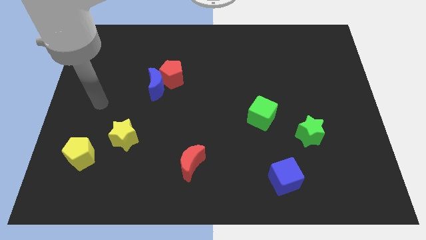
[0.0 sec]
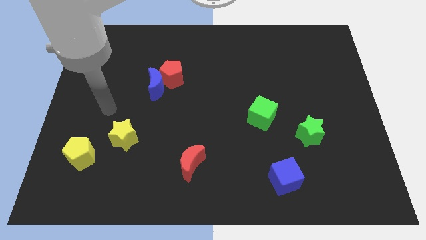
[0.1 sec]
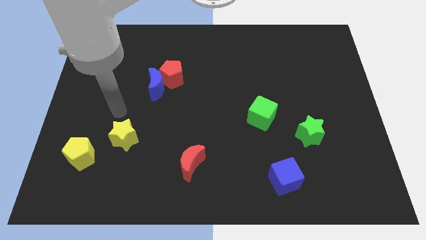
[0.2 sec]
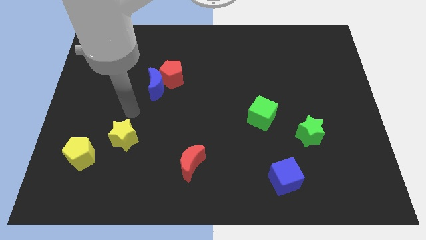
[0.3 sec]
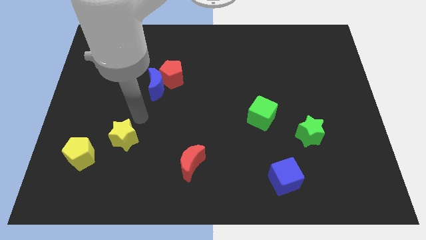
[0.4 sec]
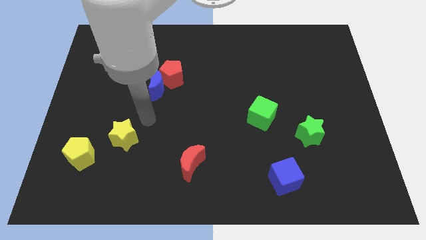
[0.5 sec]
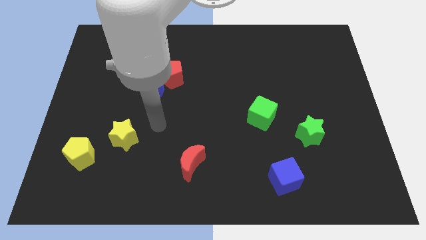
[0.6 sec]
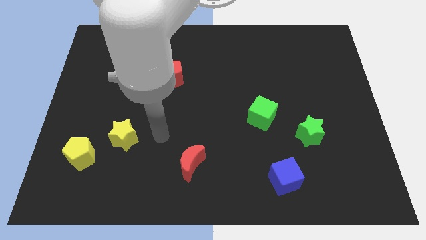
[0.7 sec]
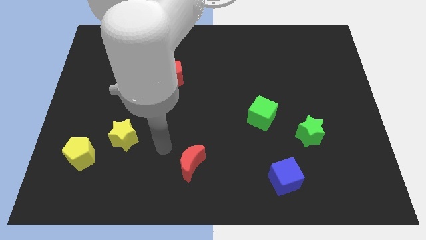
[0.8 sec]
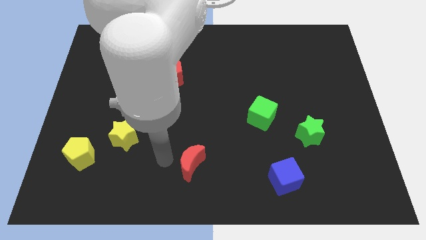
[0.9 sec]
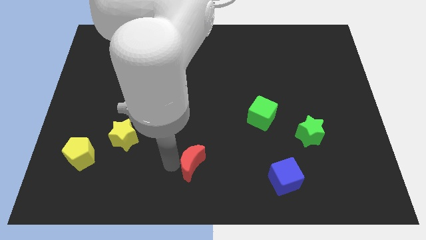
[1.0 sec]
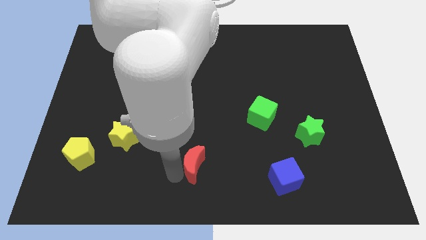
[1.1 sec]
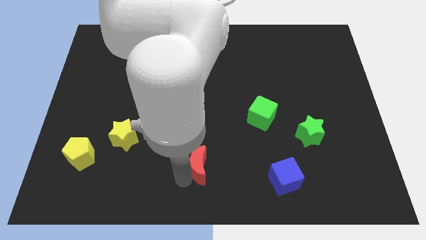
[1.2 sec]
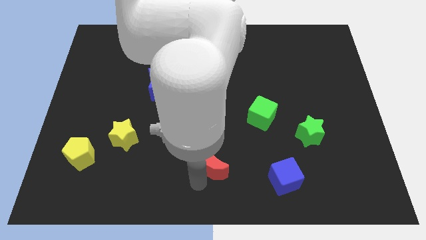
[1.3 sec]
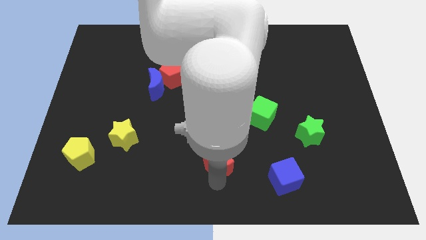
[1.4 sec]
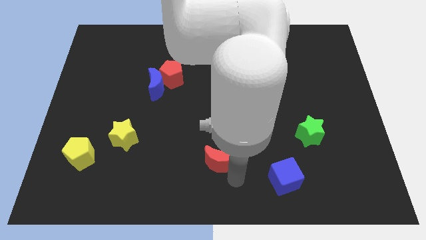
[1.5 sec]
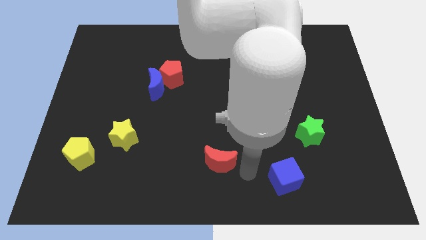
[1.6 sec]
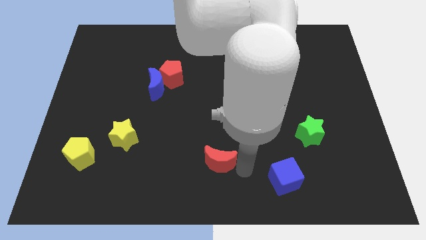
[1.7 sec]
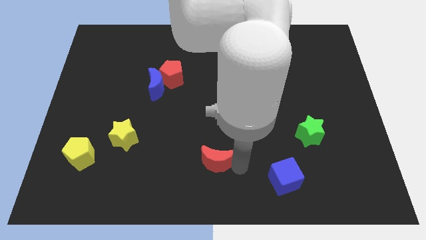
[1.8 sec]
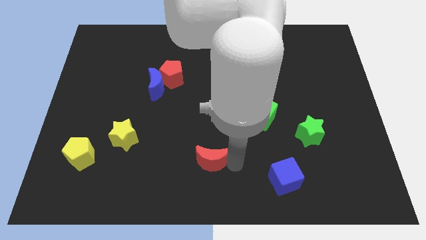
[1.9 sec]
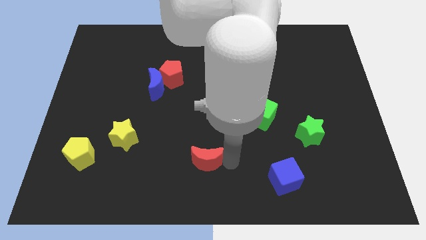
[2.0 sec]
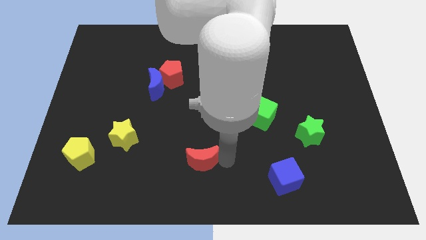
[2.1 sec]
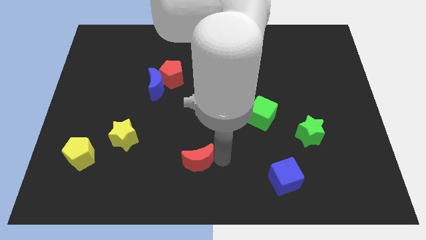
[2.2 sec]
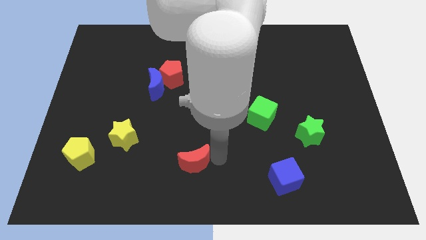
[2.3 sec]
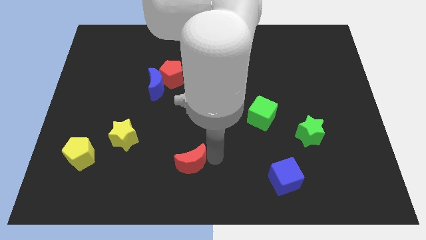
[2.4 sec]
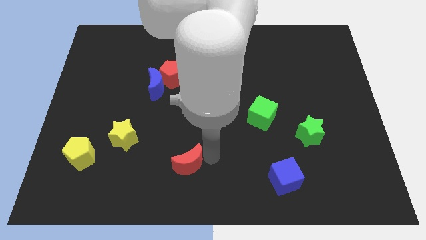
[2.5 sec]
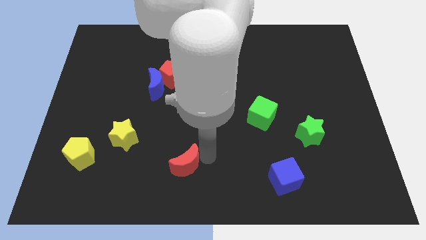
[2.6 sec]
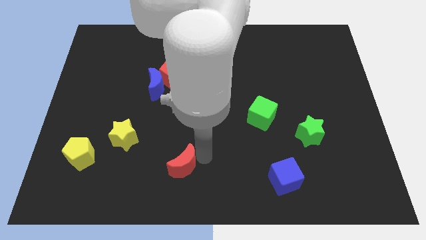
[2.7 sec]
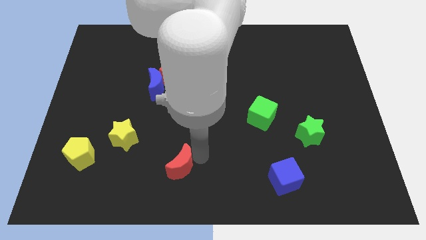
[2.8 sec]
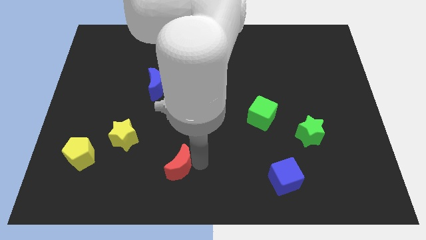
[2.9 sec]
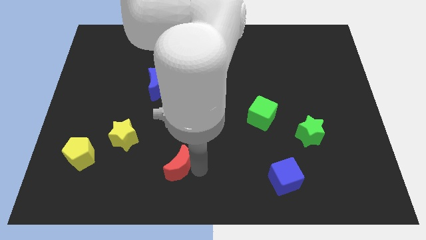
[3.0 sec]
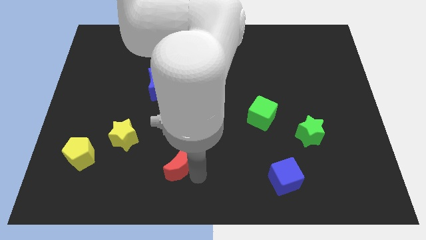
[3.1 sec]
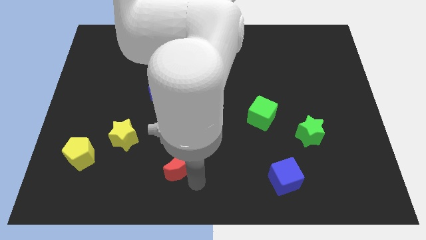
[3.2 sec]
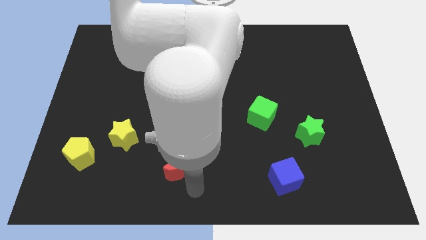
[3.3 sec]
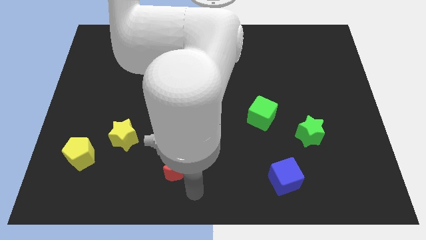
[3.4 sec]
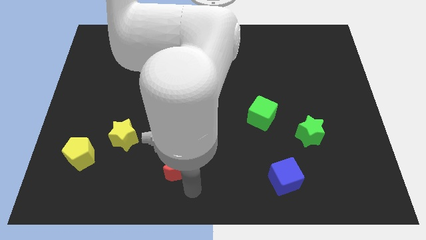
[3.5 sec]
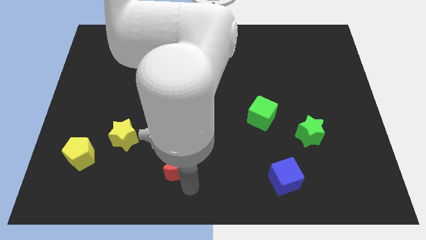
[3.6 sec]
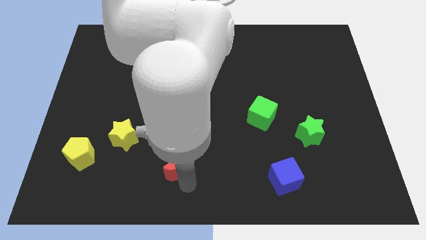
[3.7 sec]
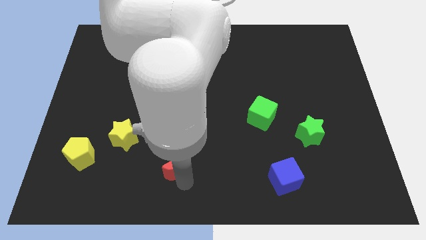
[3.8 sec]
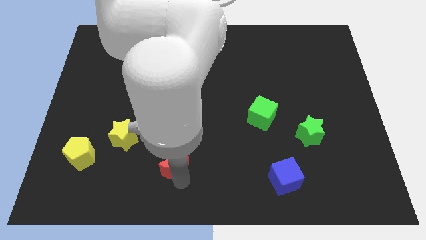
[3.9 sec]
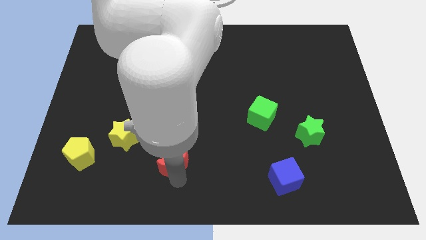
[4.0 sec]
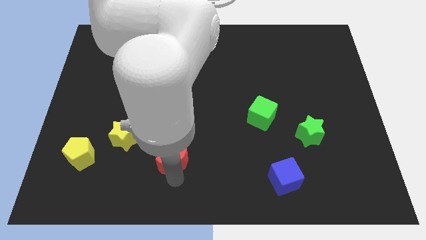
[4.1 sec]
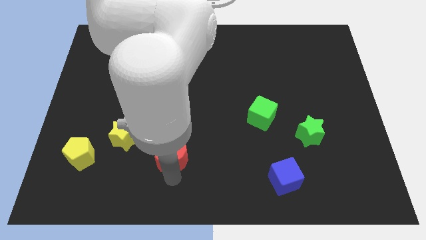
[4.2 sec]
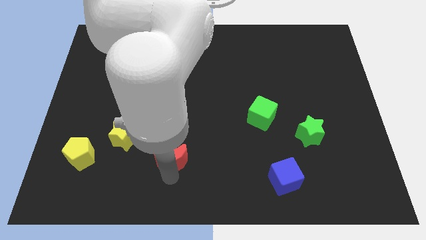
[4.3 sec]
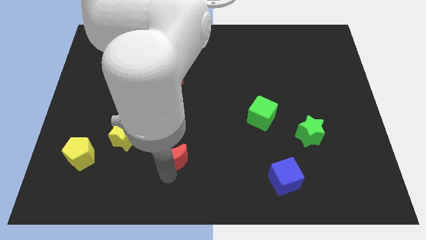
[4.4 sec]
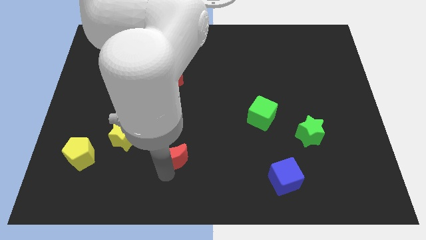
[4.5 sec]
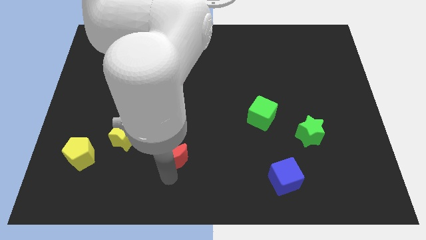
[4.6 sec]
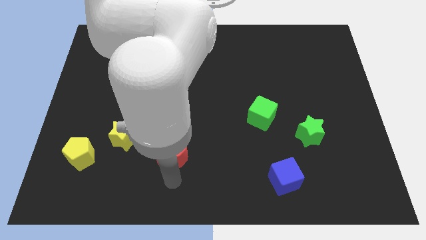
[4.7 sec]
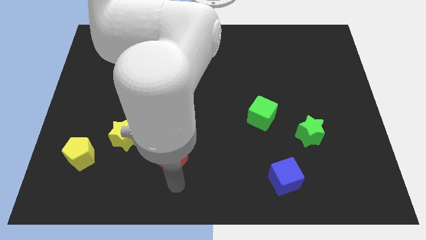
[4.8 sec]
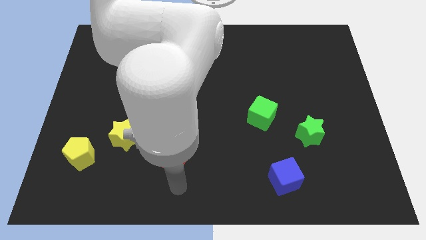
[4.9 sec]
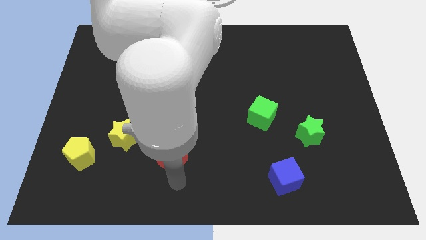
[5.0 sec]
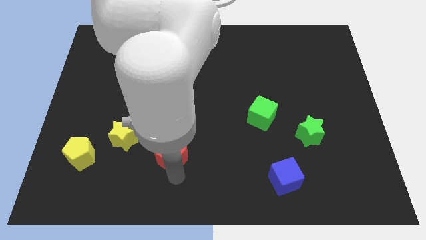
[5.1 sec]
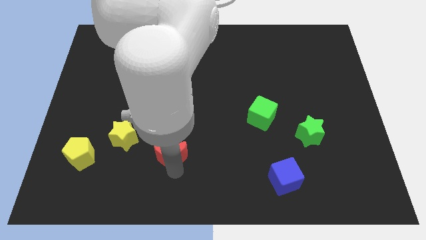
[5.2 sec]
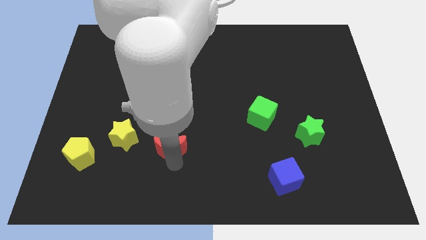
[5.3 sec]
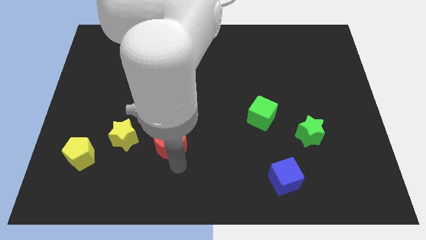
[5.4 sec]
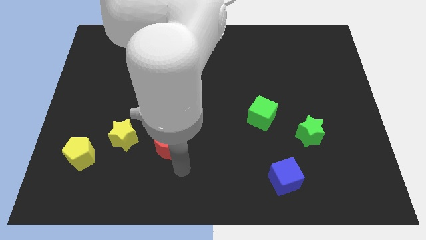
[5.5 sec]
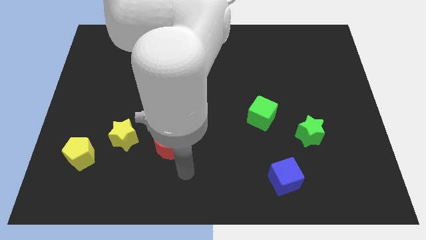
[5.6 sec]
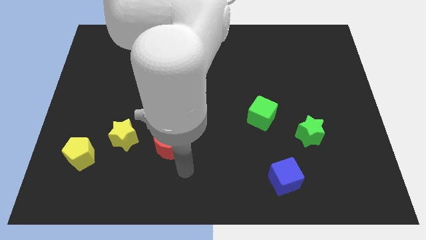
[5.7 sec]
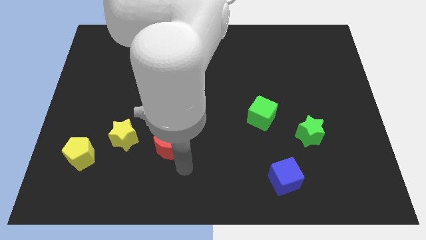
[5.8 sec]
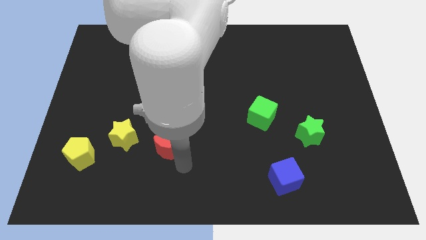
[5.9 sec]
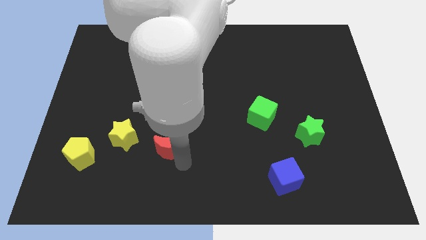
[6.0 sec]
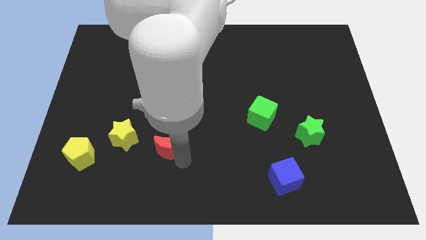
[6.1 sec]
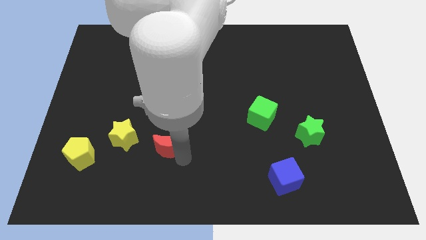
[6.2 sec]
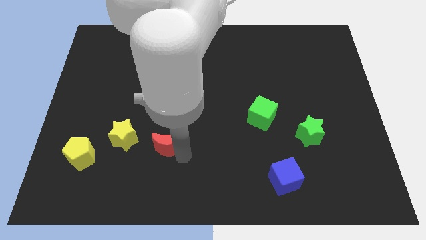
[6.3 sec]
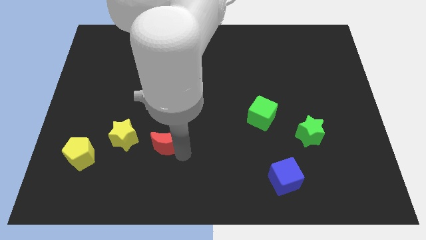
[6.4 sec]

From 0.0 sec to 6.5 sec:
slightly slide the red moon up and to the left

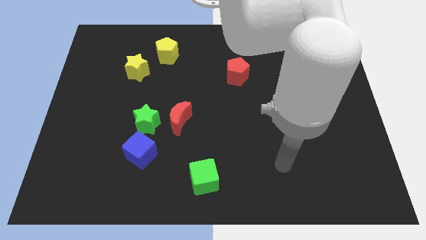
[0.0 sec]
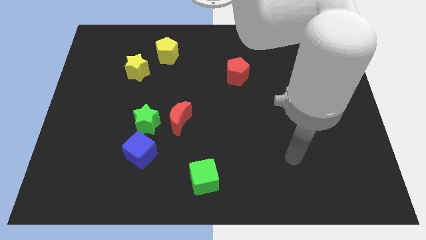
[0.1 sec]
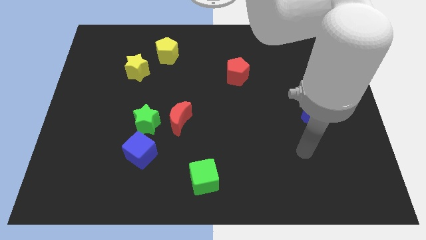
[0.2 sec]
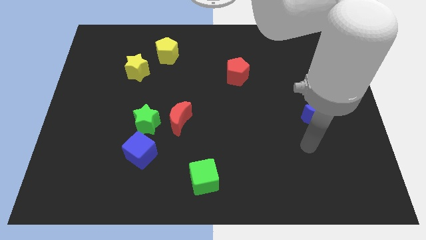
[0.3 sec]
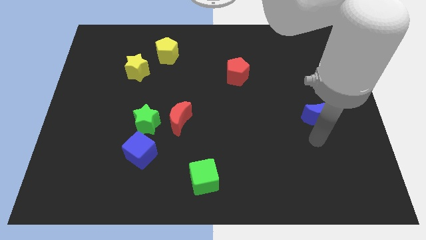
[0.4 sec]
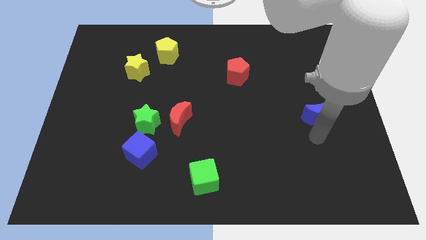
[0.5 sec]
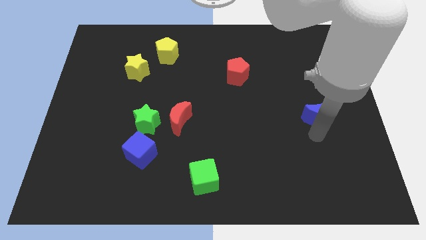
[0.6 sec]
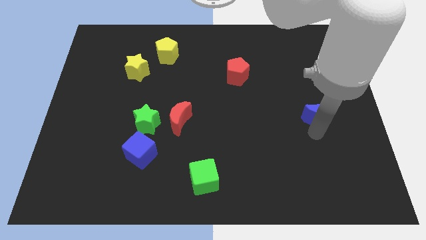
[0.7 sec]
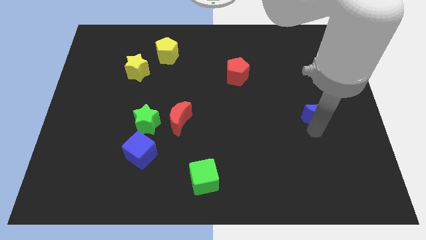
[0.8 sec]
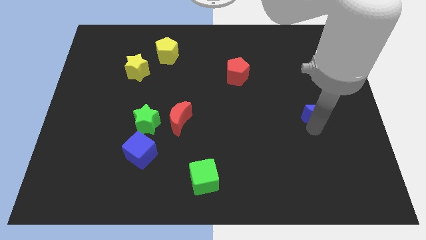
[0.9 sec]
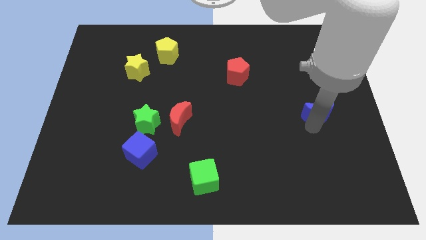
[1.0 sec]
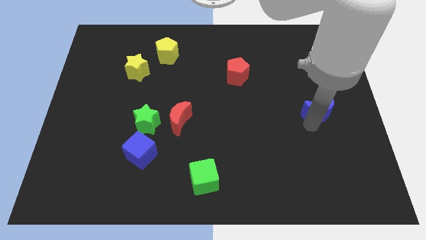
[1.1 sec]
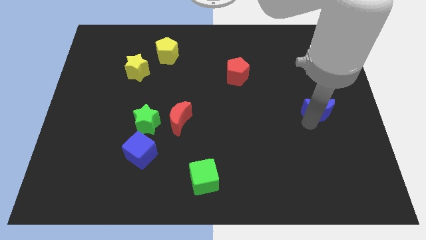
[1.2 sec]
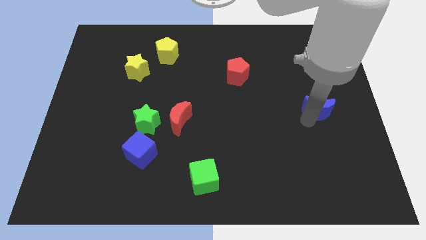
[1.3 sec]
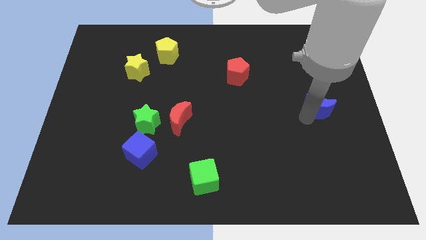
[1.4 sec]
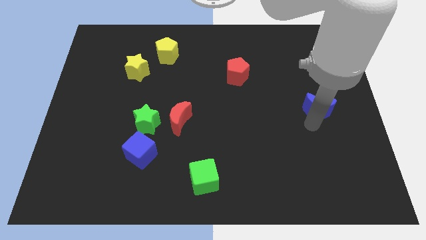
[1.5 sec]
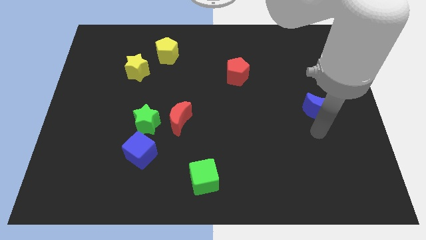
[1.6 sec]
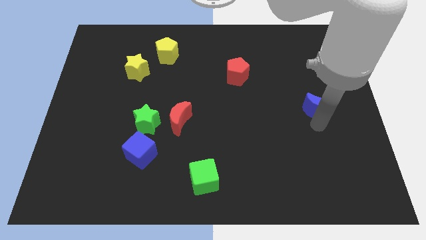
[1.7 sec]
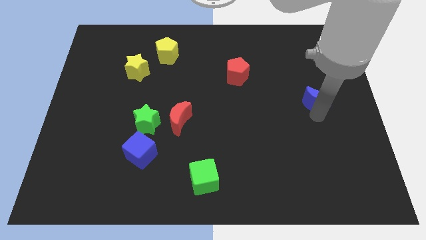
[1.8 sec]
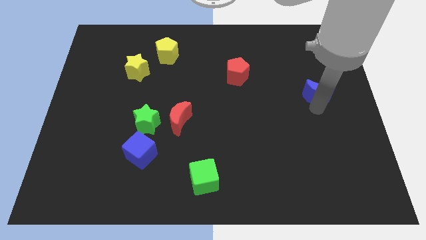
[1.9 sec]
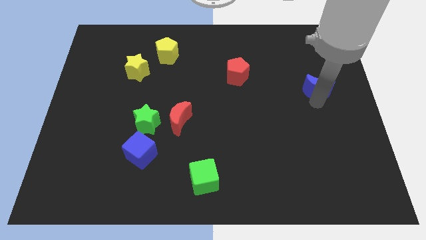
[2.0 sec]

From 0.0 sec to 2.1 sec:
slightly slide the blue moon upwards
